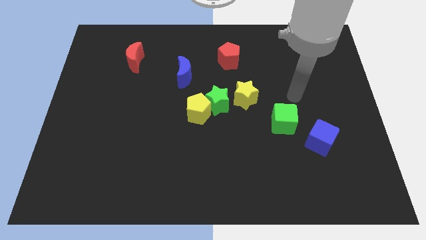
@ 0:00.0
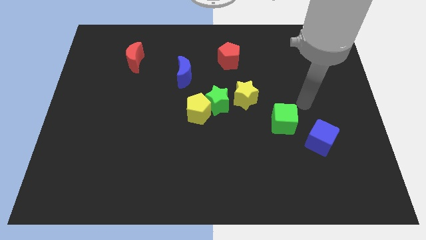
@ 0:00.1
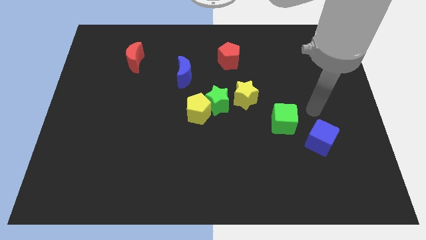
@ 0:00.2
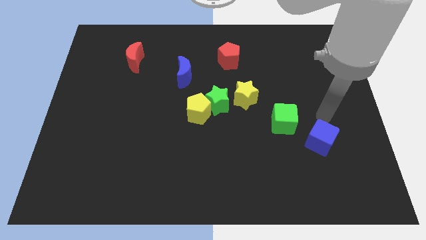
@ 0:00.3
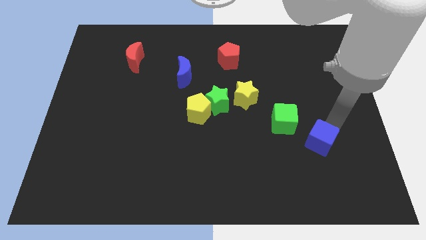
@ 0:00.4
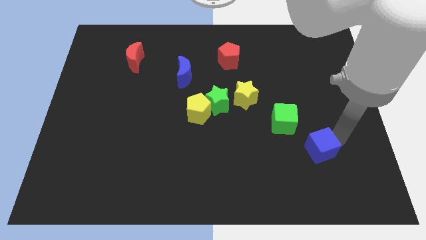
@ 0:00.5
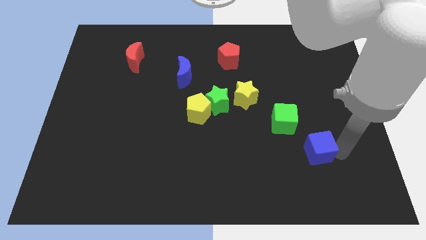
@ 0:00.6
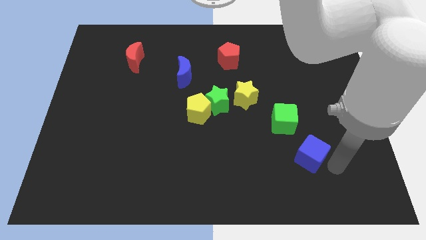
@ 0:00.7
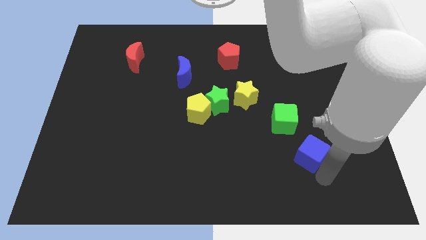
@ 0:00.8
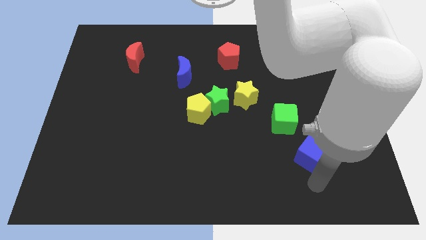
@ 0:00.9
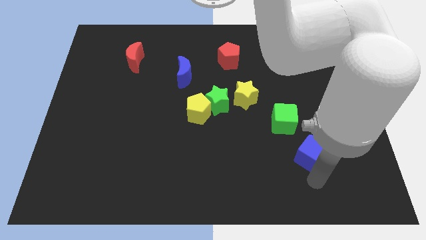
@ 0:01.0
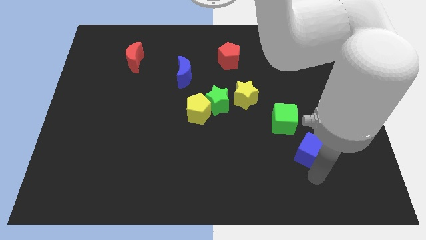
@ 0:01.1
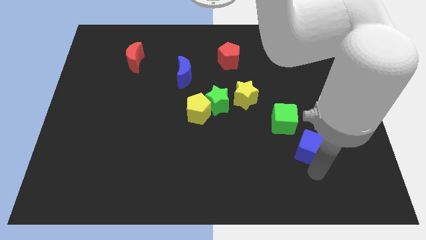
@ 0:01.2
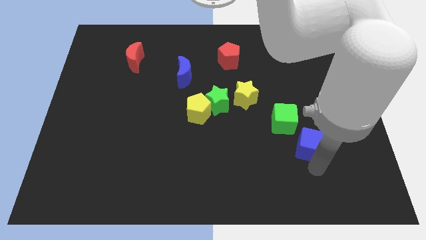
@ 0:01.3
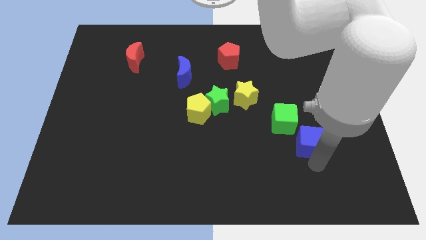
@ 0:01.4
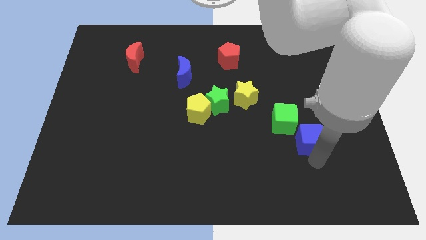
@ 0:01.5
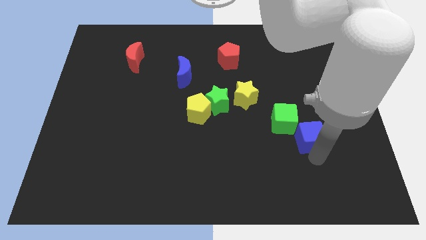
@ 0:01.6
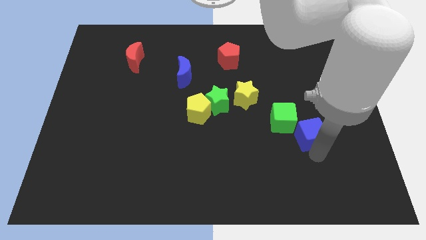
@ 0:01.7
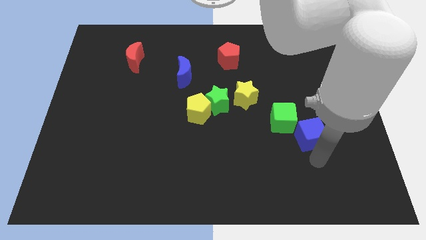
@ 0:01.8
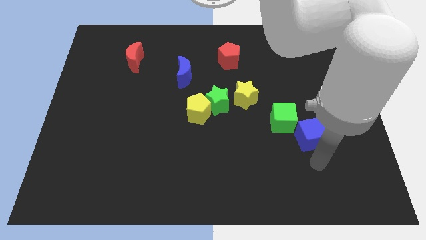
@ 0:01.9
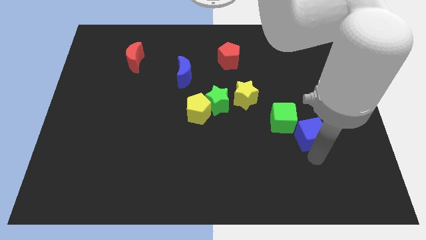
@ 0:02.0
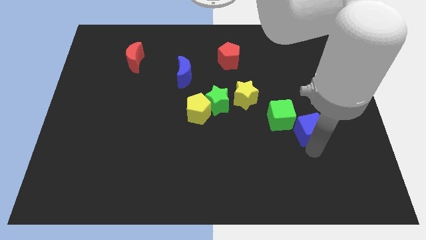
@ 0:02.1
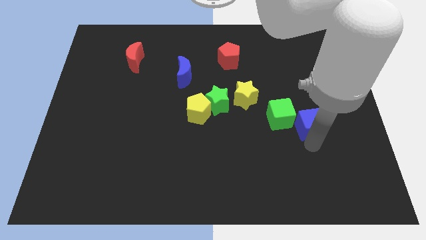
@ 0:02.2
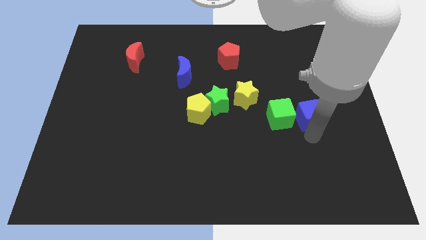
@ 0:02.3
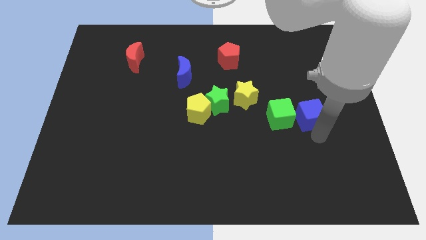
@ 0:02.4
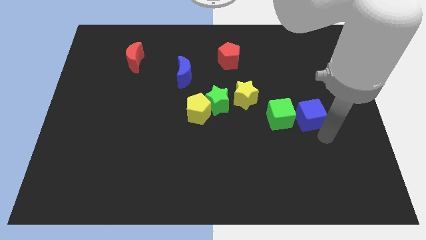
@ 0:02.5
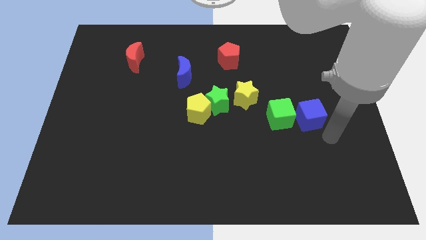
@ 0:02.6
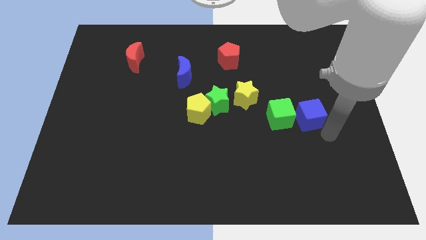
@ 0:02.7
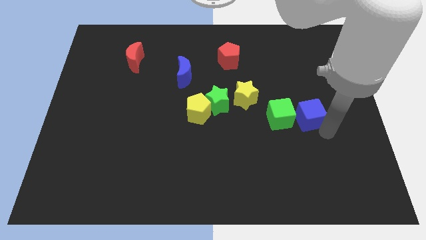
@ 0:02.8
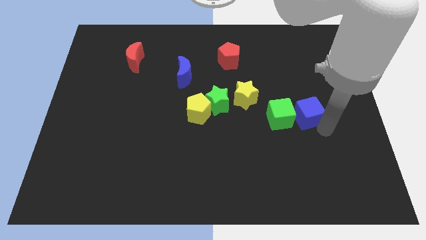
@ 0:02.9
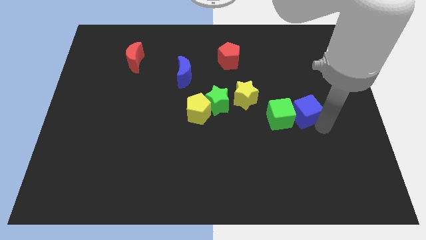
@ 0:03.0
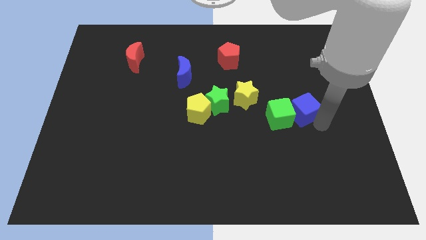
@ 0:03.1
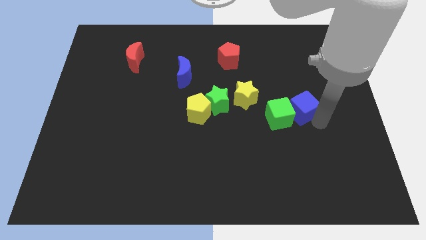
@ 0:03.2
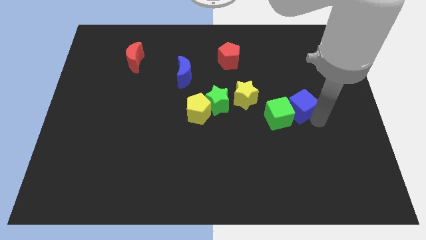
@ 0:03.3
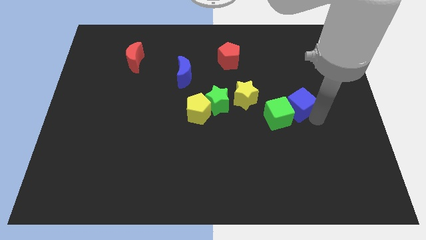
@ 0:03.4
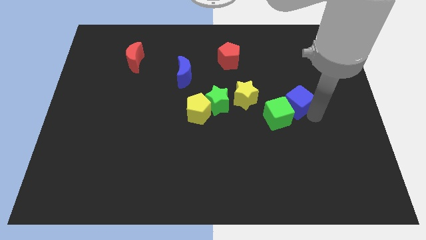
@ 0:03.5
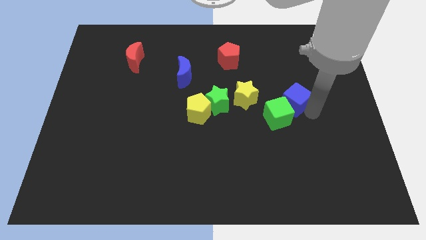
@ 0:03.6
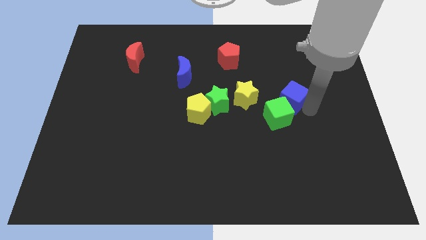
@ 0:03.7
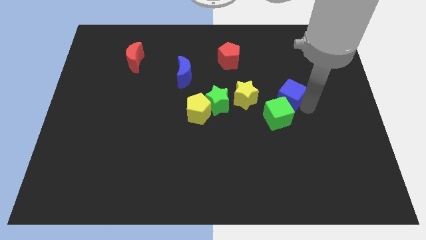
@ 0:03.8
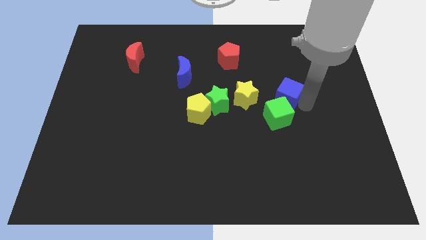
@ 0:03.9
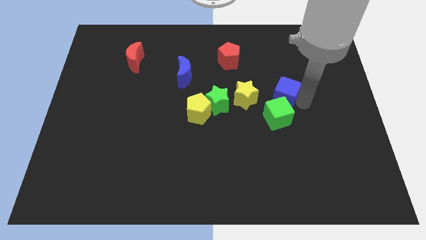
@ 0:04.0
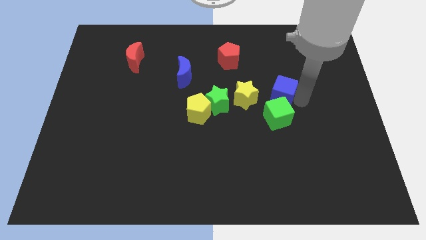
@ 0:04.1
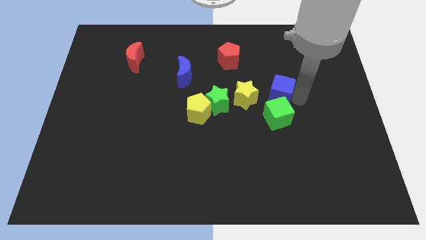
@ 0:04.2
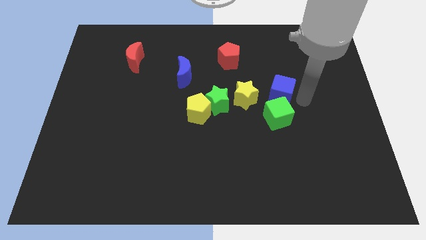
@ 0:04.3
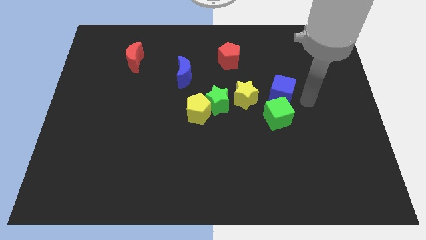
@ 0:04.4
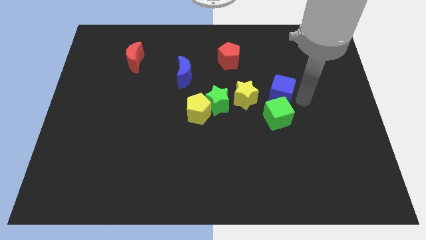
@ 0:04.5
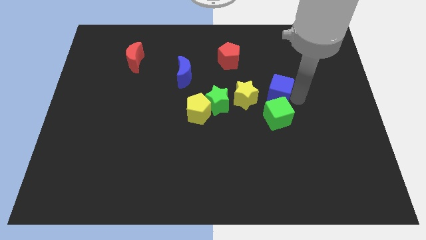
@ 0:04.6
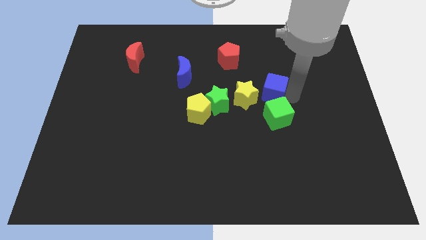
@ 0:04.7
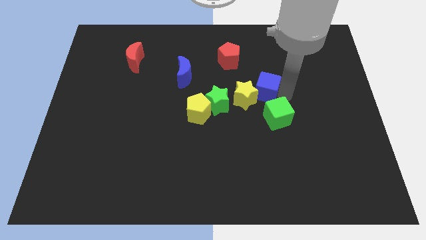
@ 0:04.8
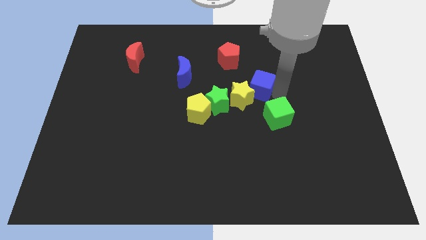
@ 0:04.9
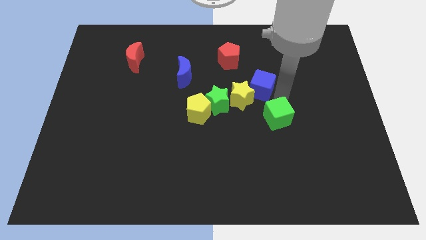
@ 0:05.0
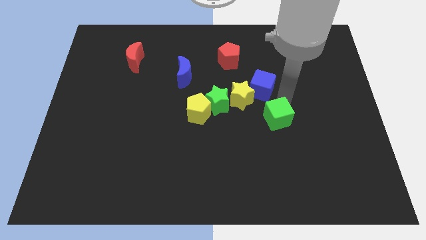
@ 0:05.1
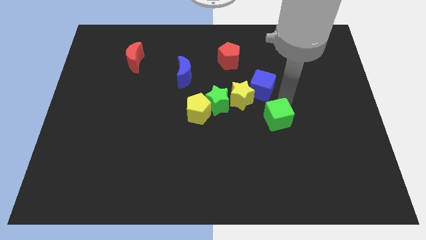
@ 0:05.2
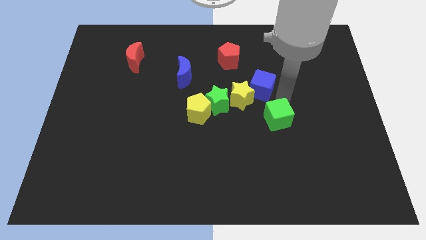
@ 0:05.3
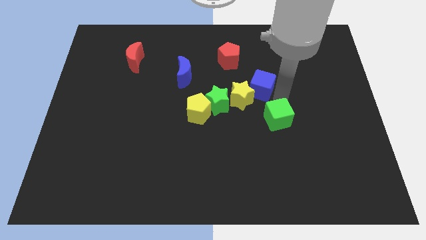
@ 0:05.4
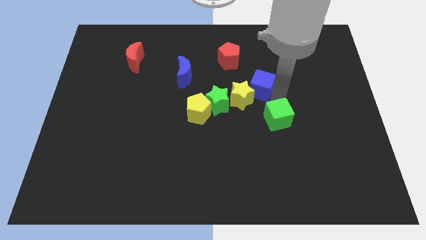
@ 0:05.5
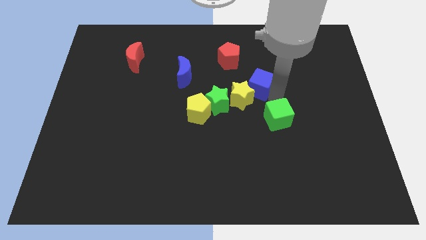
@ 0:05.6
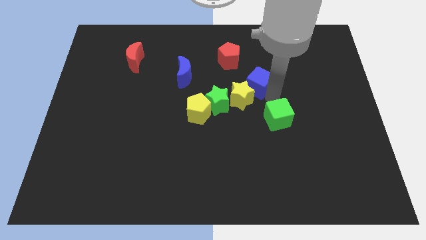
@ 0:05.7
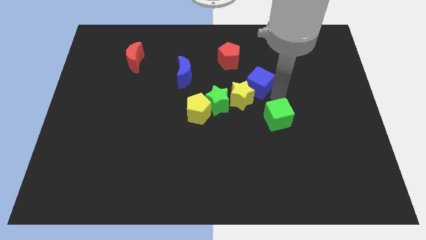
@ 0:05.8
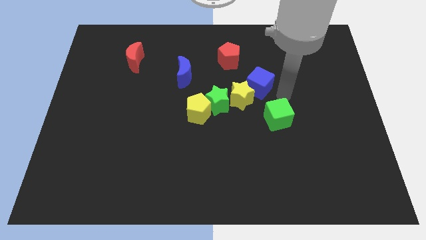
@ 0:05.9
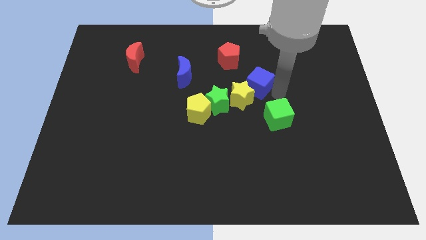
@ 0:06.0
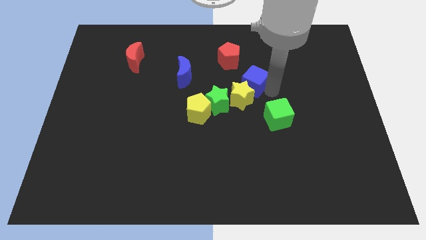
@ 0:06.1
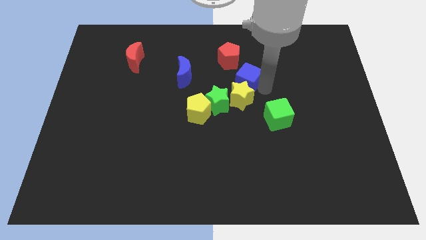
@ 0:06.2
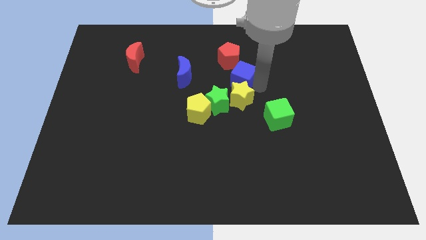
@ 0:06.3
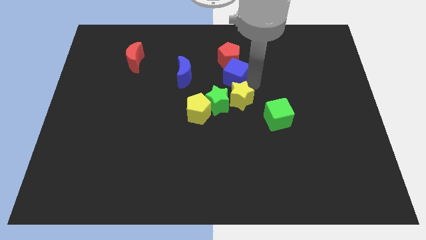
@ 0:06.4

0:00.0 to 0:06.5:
move the blue cube above the green star
